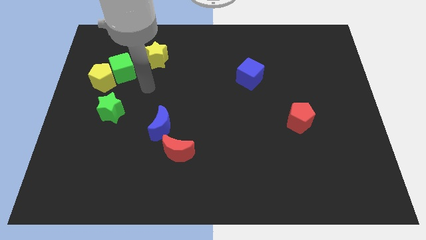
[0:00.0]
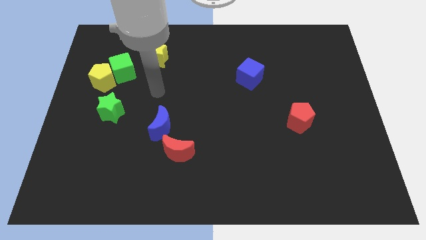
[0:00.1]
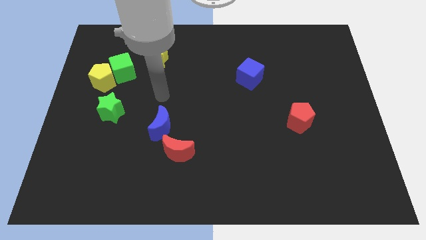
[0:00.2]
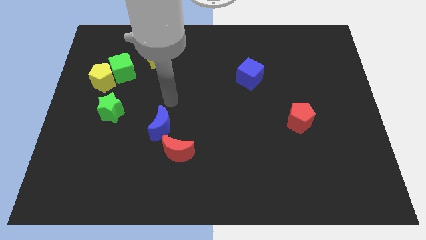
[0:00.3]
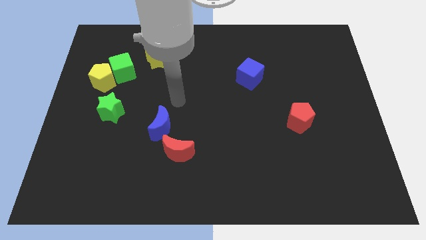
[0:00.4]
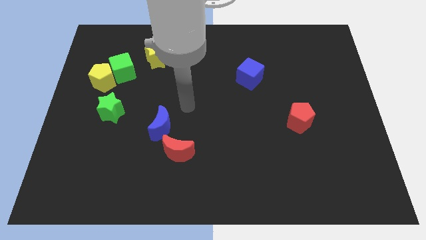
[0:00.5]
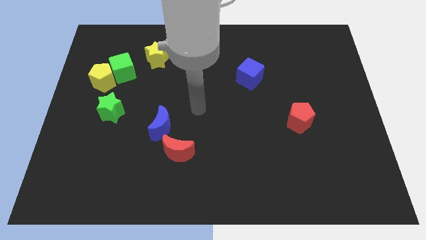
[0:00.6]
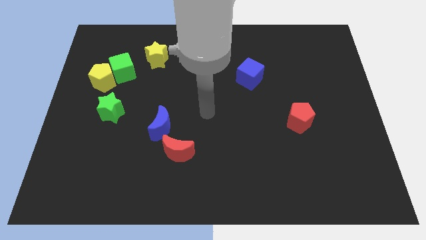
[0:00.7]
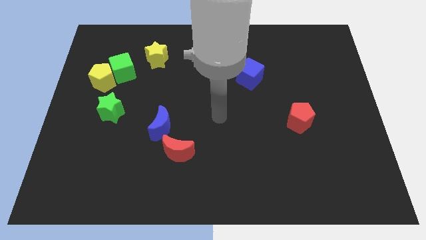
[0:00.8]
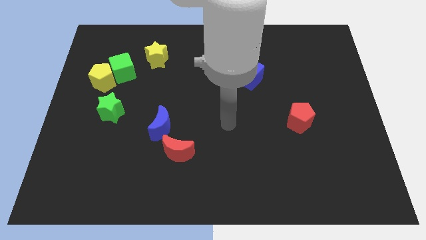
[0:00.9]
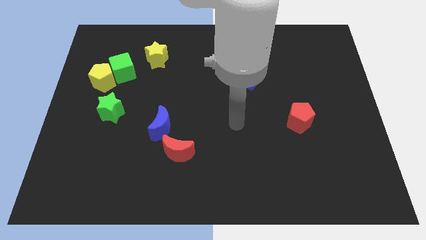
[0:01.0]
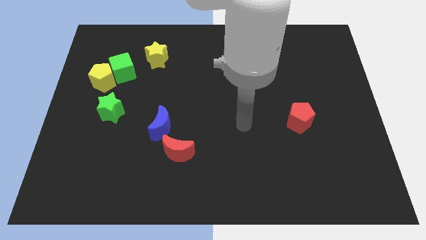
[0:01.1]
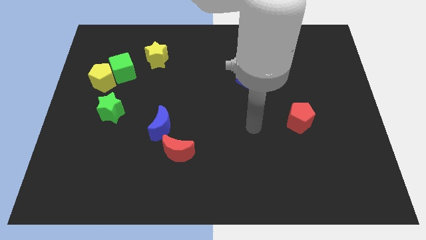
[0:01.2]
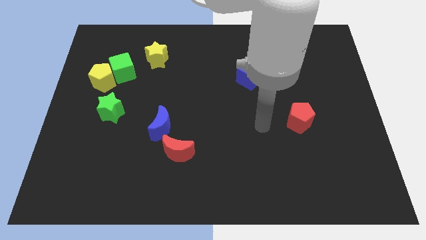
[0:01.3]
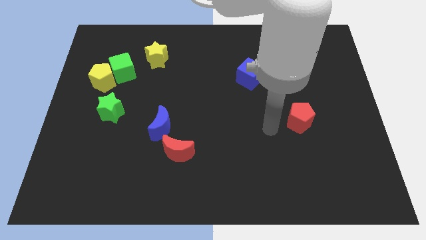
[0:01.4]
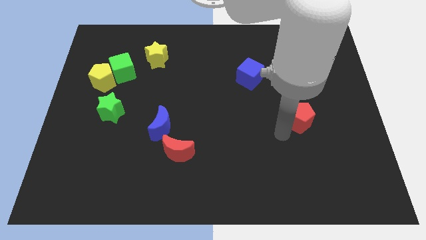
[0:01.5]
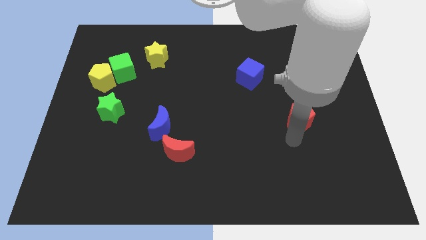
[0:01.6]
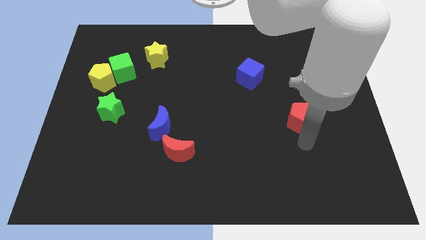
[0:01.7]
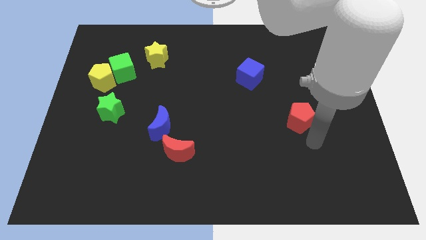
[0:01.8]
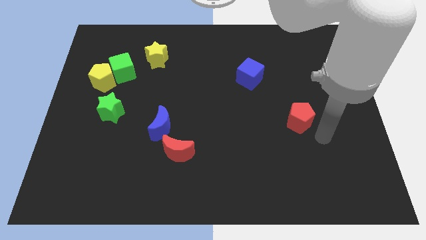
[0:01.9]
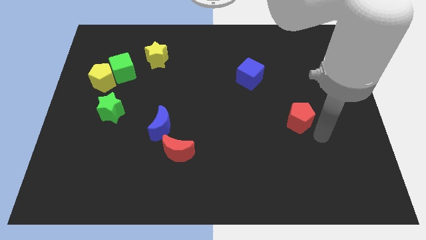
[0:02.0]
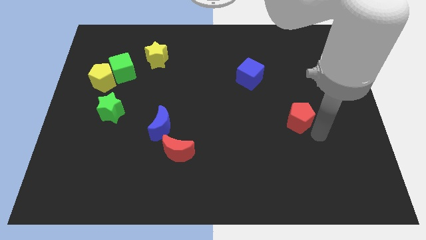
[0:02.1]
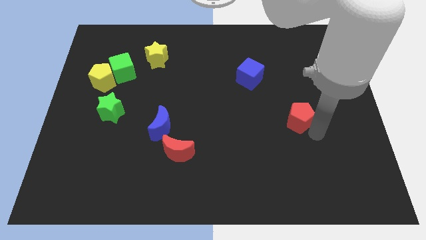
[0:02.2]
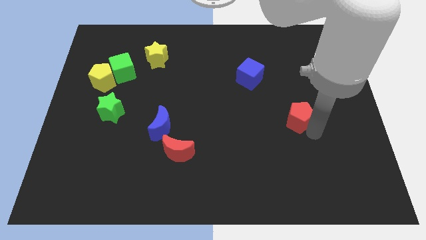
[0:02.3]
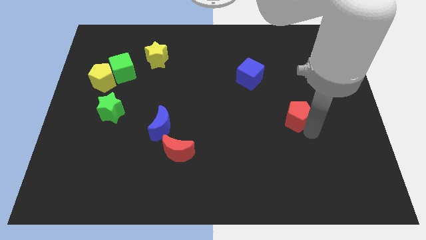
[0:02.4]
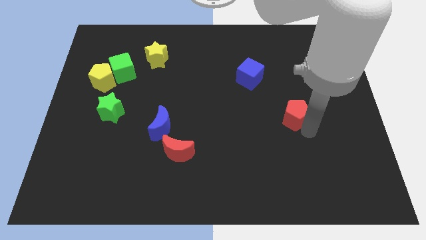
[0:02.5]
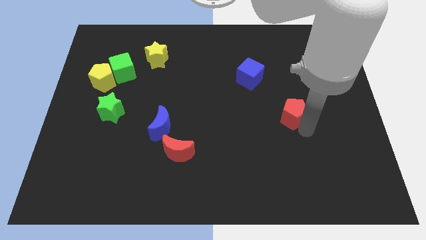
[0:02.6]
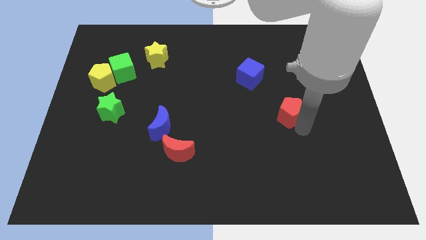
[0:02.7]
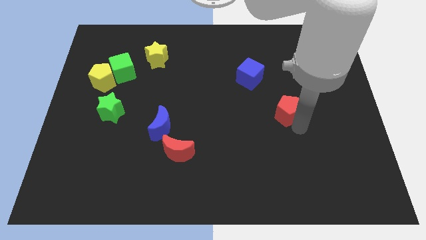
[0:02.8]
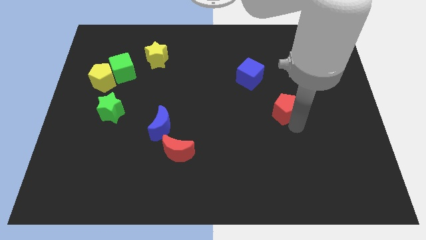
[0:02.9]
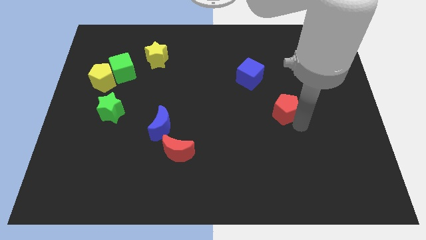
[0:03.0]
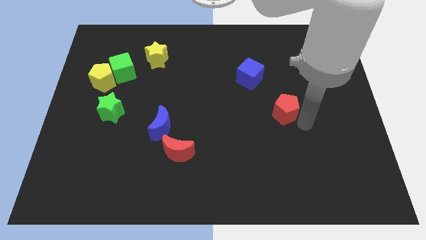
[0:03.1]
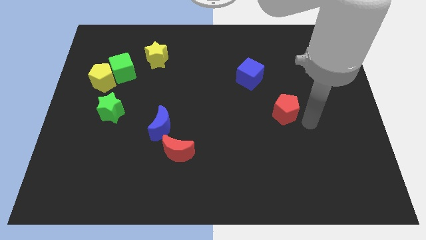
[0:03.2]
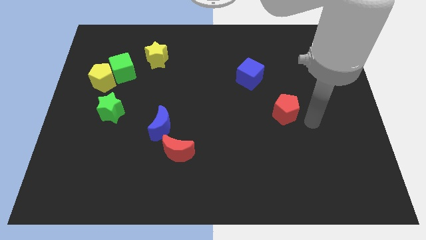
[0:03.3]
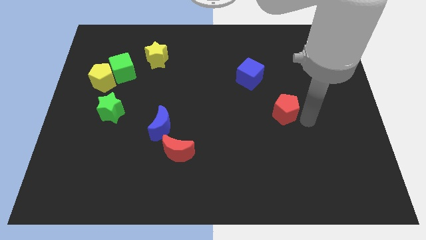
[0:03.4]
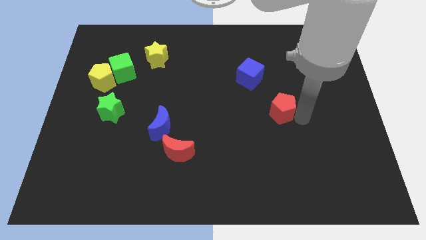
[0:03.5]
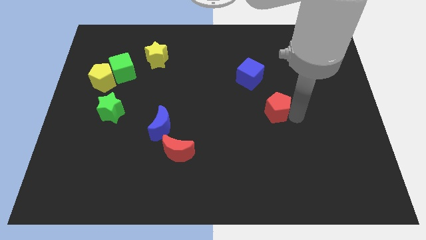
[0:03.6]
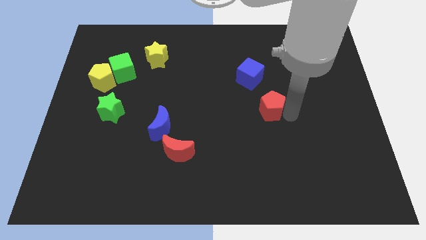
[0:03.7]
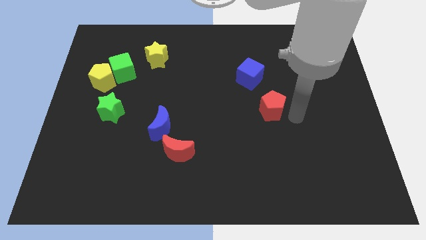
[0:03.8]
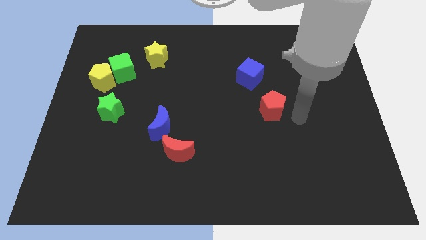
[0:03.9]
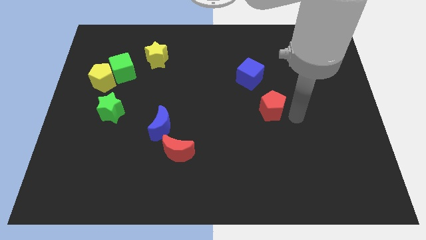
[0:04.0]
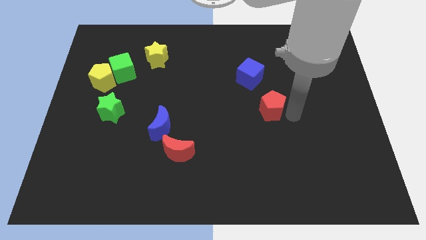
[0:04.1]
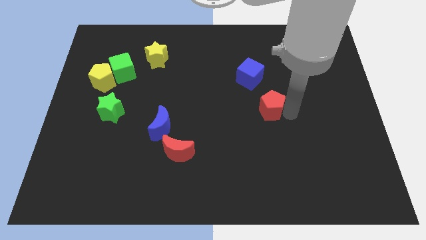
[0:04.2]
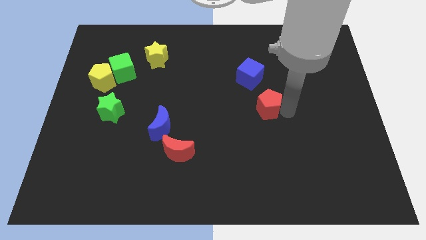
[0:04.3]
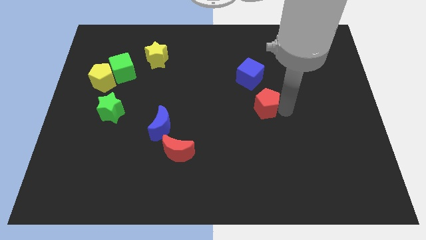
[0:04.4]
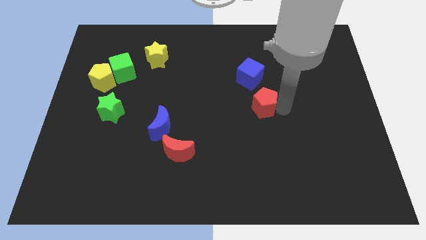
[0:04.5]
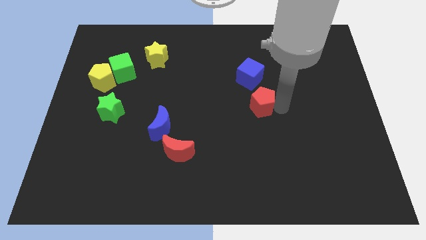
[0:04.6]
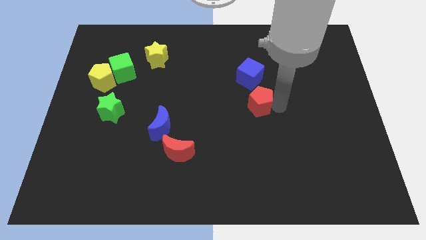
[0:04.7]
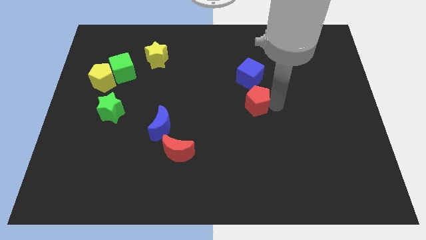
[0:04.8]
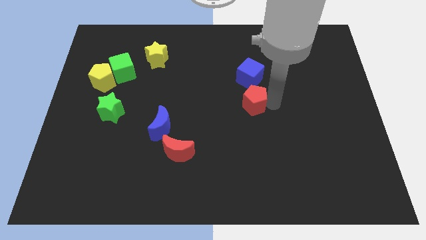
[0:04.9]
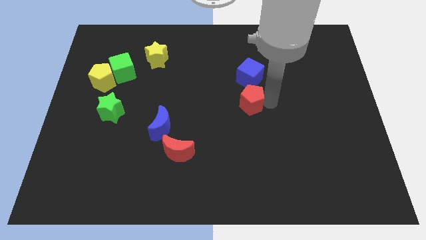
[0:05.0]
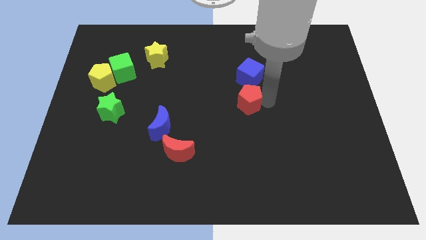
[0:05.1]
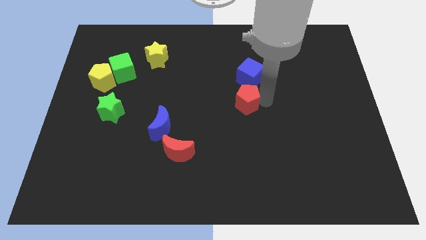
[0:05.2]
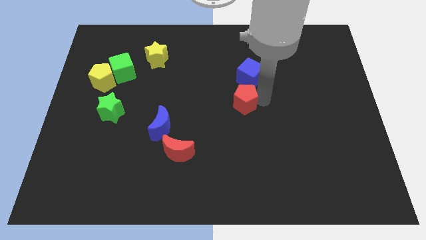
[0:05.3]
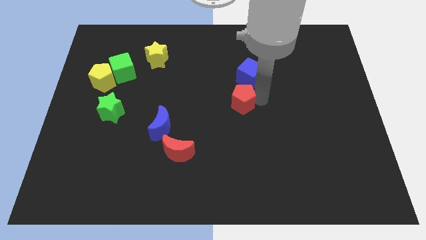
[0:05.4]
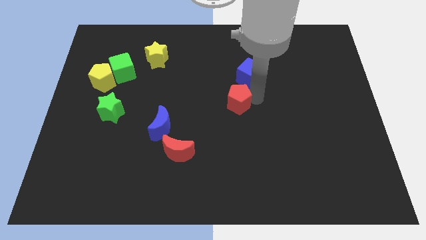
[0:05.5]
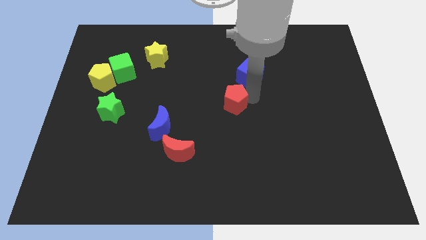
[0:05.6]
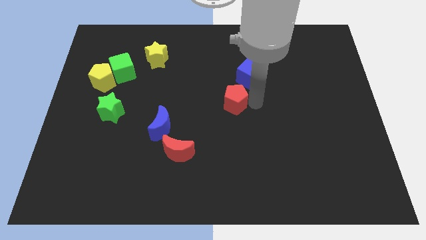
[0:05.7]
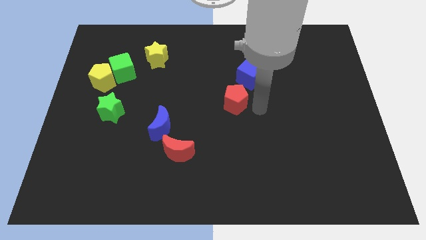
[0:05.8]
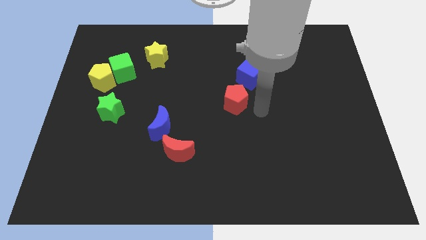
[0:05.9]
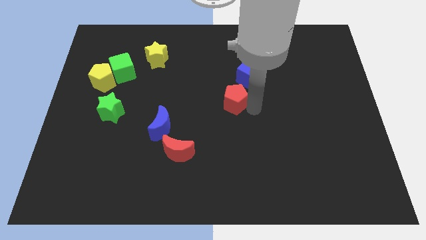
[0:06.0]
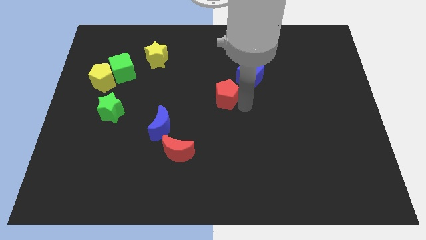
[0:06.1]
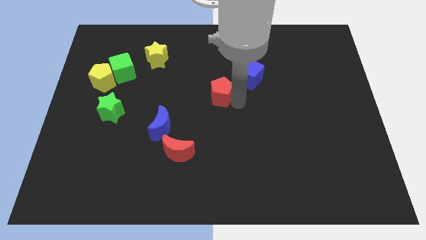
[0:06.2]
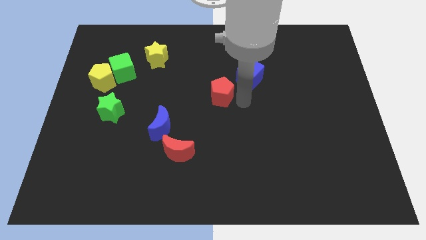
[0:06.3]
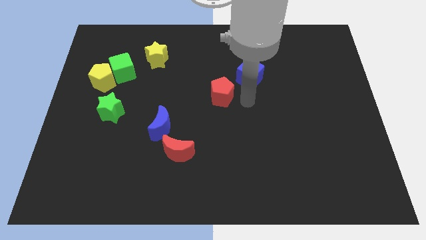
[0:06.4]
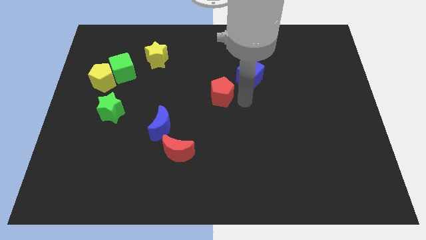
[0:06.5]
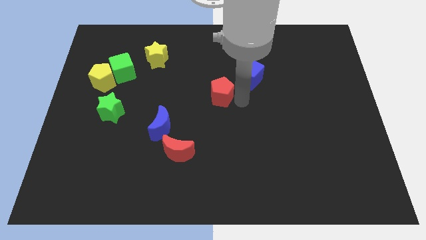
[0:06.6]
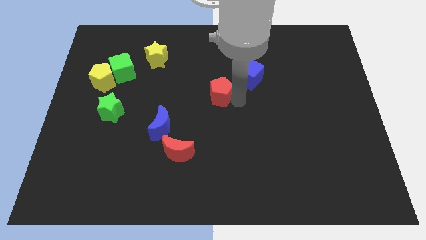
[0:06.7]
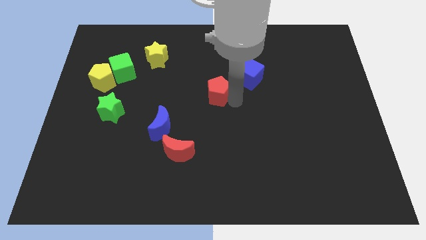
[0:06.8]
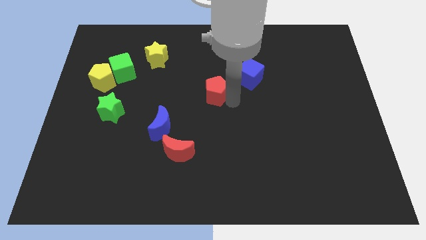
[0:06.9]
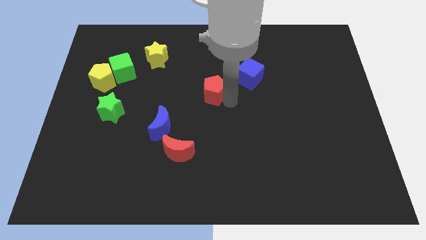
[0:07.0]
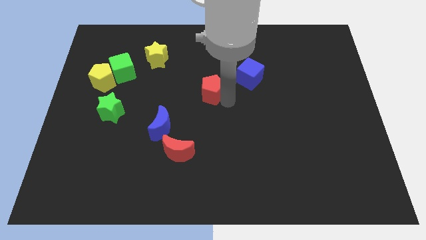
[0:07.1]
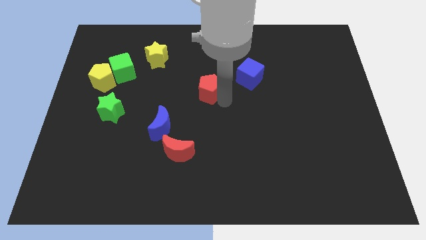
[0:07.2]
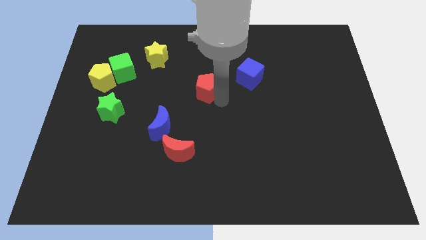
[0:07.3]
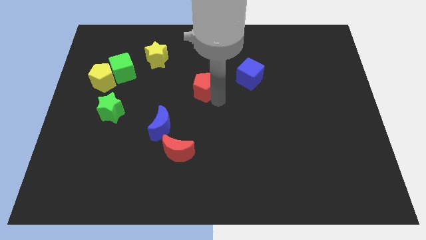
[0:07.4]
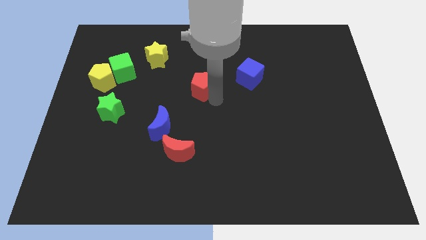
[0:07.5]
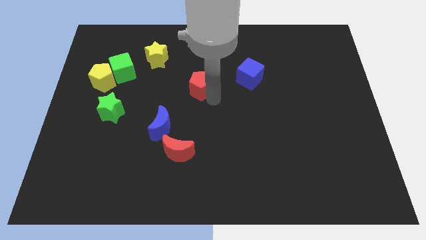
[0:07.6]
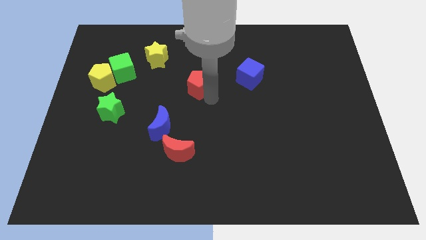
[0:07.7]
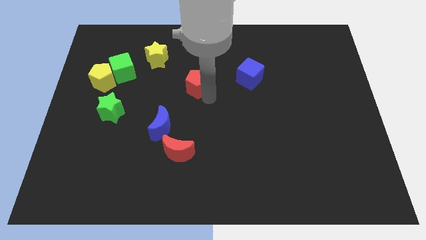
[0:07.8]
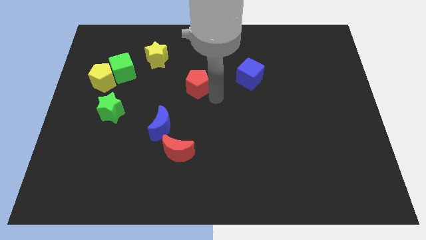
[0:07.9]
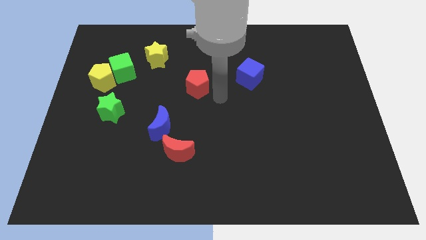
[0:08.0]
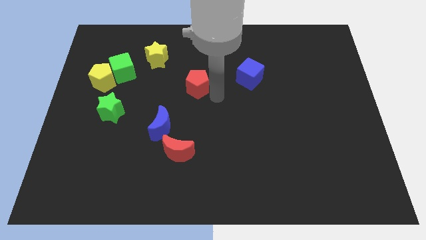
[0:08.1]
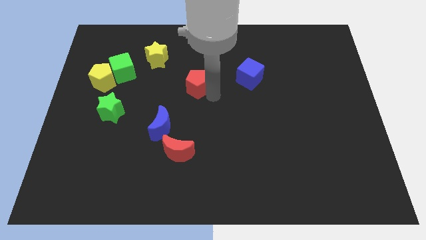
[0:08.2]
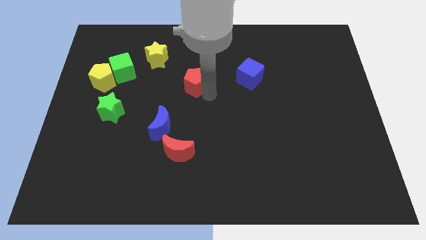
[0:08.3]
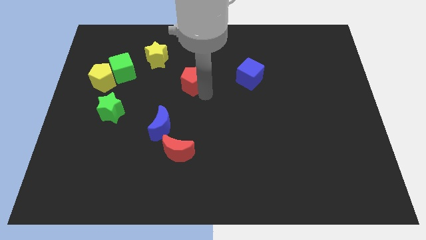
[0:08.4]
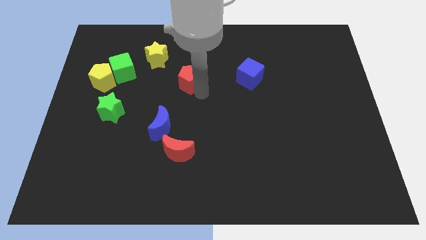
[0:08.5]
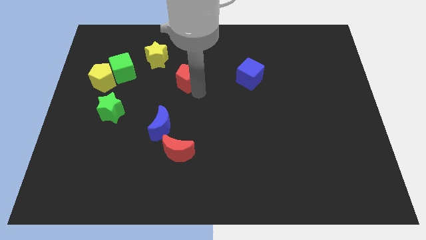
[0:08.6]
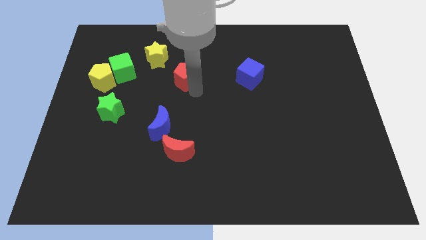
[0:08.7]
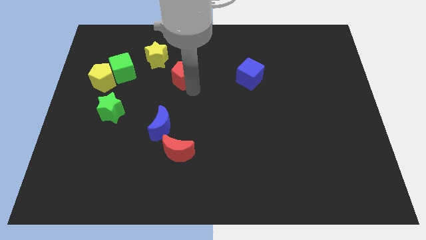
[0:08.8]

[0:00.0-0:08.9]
put the red pentagon just right of the green cube
